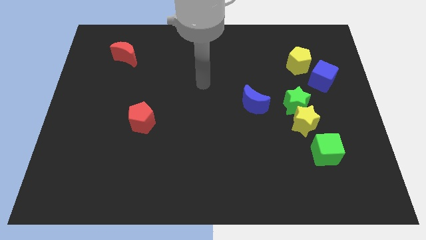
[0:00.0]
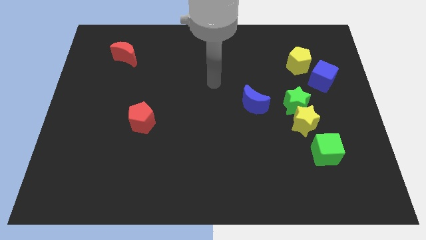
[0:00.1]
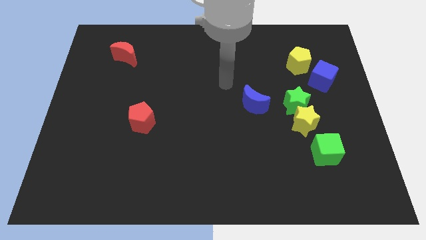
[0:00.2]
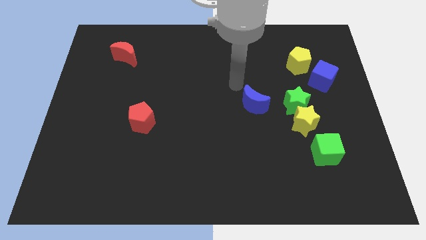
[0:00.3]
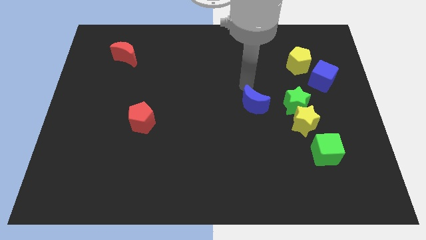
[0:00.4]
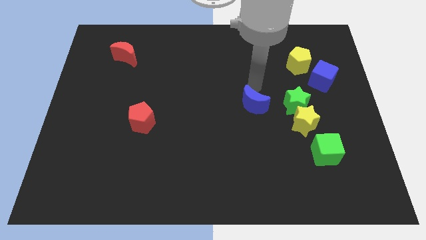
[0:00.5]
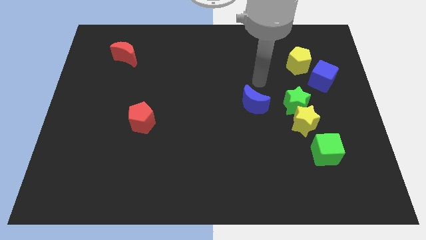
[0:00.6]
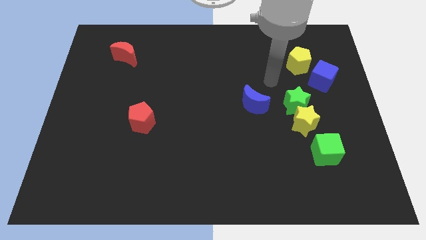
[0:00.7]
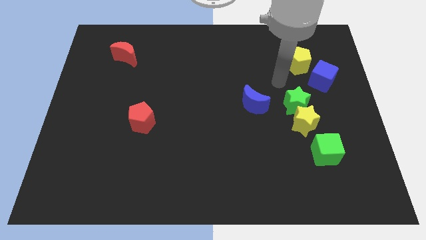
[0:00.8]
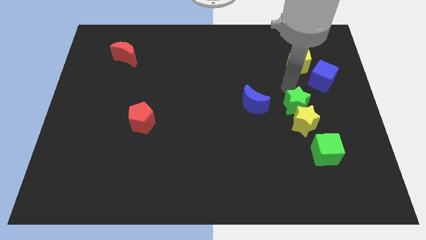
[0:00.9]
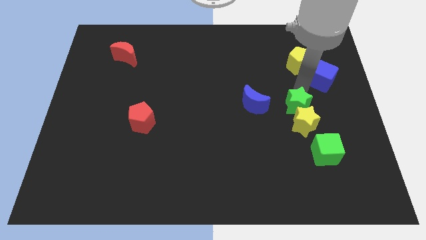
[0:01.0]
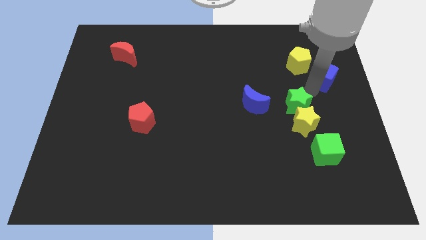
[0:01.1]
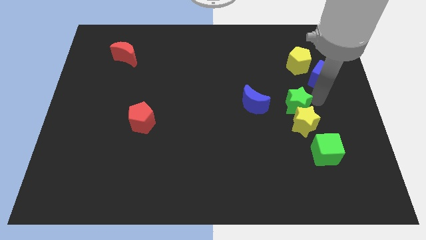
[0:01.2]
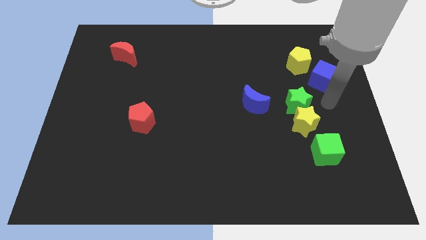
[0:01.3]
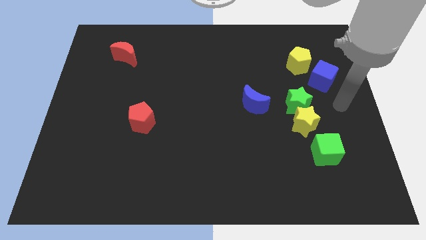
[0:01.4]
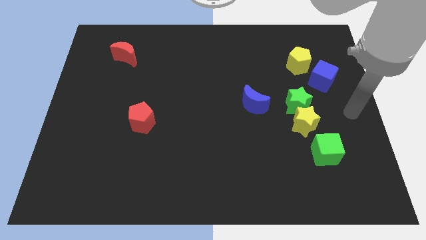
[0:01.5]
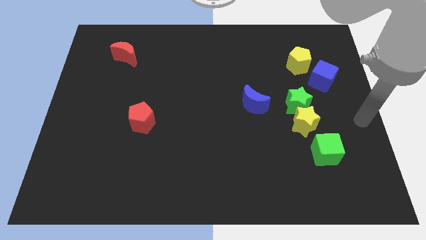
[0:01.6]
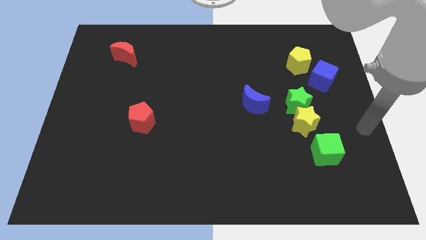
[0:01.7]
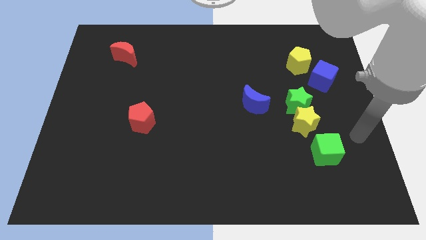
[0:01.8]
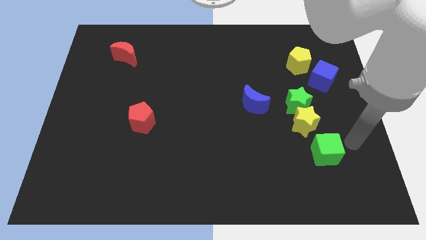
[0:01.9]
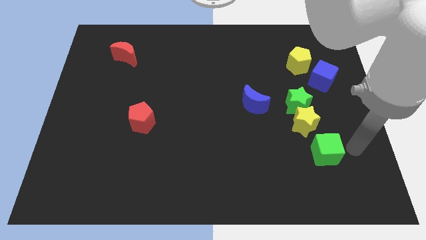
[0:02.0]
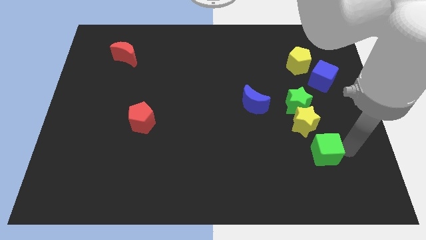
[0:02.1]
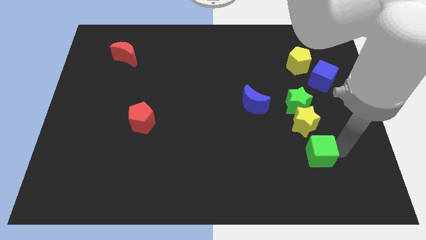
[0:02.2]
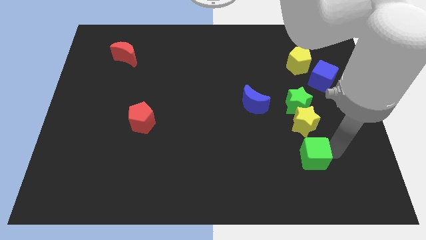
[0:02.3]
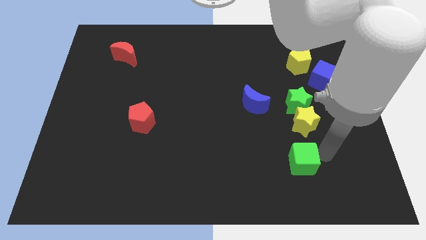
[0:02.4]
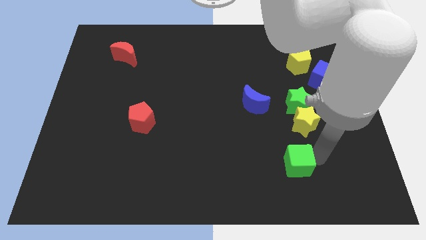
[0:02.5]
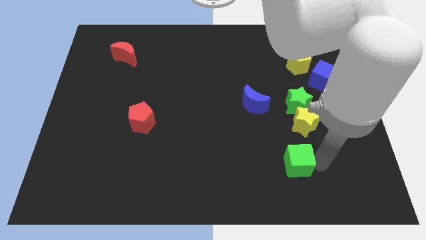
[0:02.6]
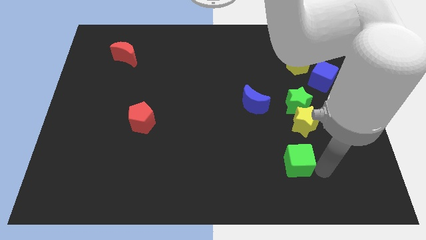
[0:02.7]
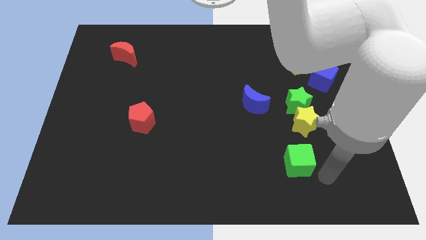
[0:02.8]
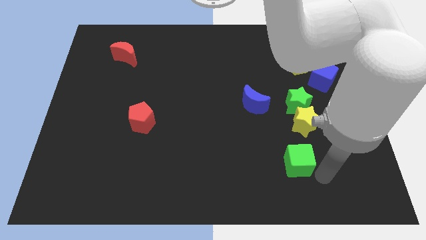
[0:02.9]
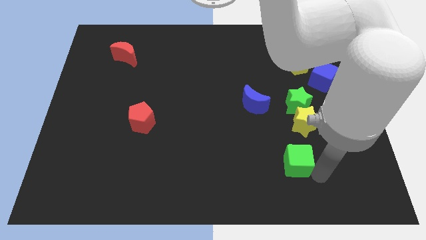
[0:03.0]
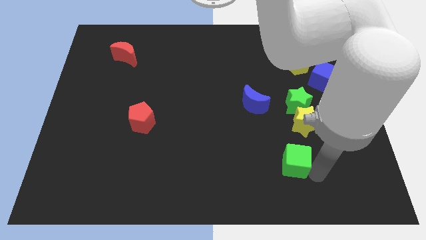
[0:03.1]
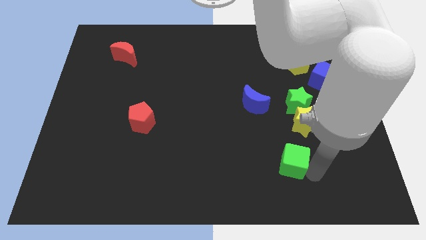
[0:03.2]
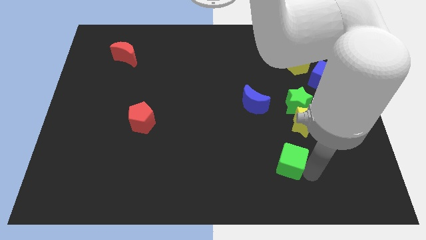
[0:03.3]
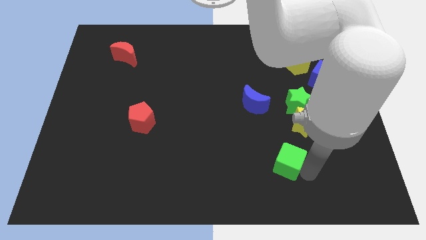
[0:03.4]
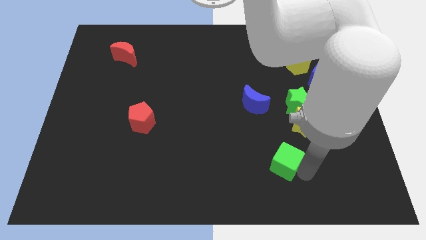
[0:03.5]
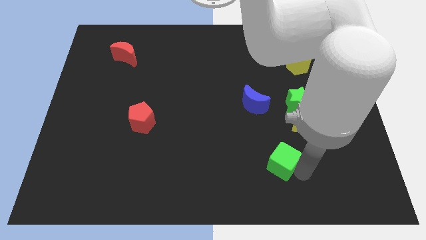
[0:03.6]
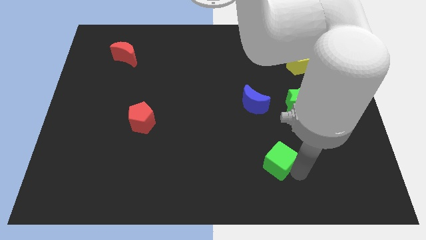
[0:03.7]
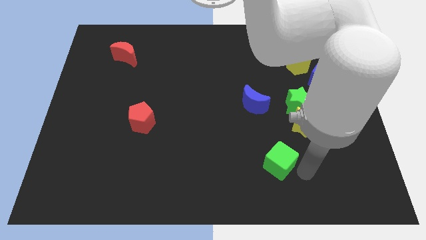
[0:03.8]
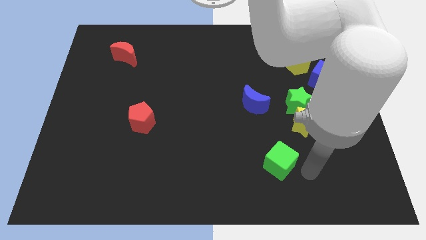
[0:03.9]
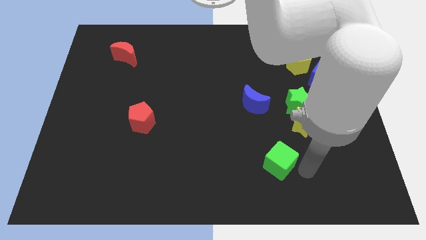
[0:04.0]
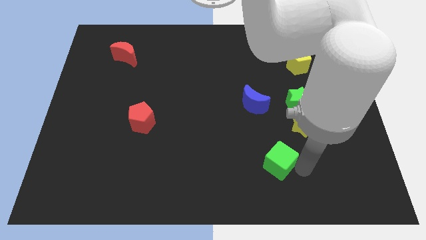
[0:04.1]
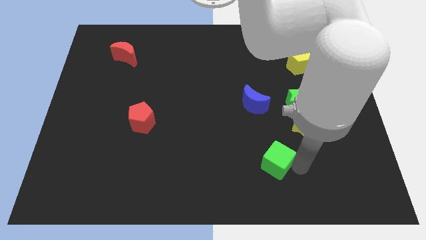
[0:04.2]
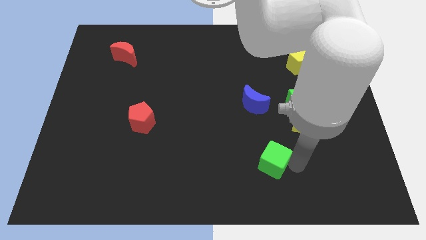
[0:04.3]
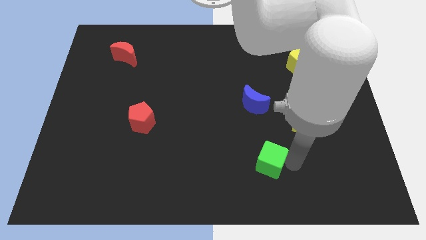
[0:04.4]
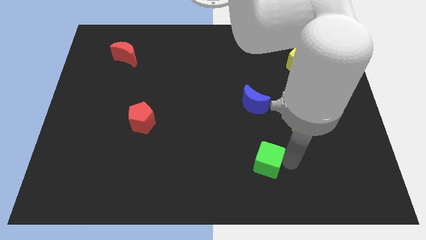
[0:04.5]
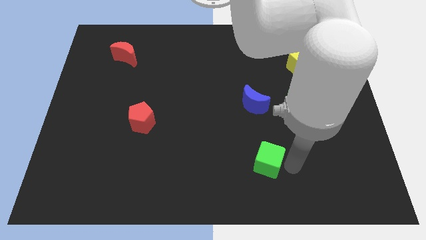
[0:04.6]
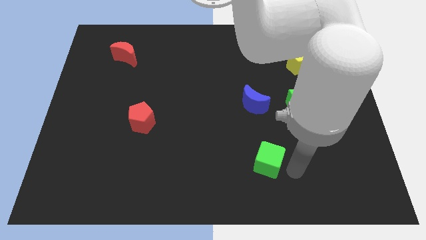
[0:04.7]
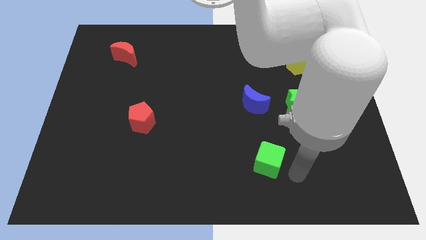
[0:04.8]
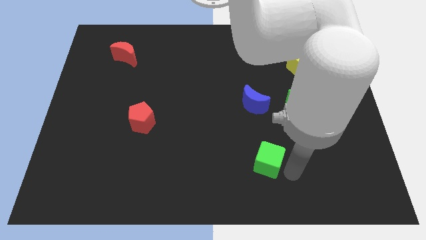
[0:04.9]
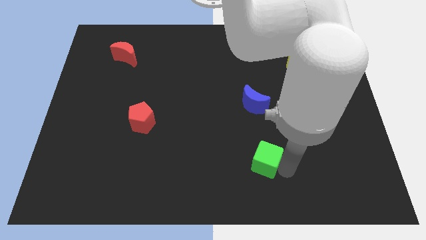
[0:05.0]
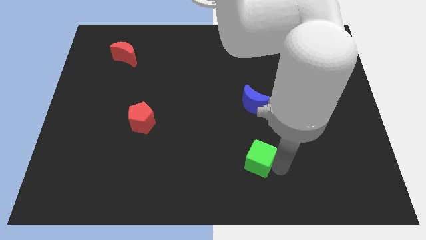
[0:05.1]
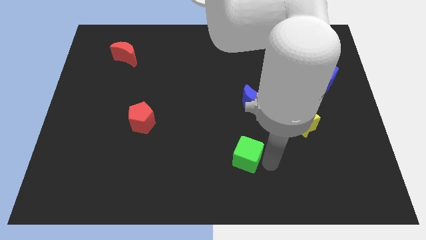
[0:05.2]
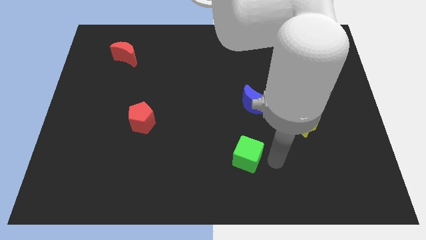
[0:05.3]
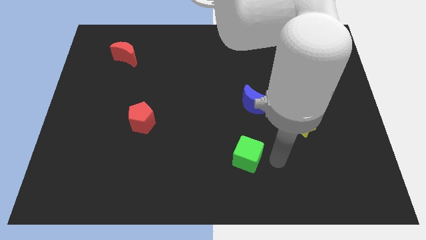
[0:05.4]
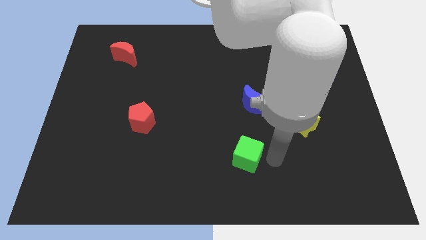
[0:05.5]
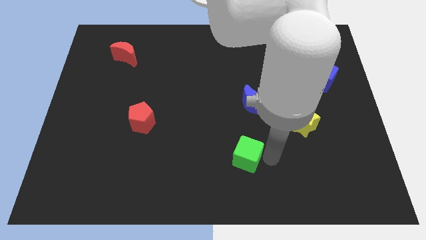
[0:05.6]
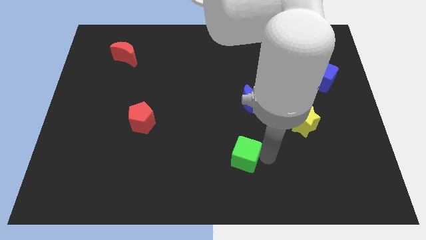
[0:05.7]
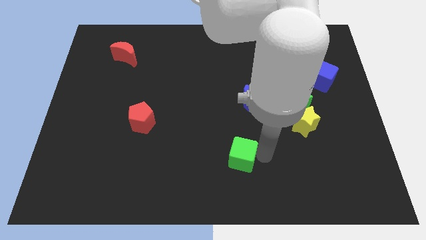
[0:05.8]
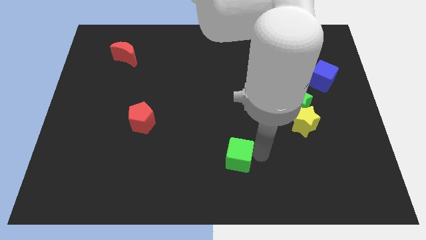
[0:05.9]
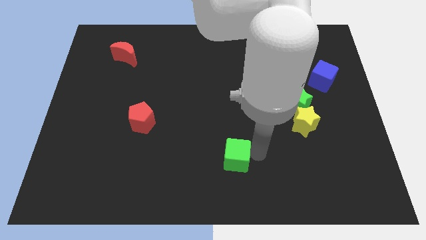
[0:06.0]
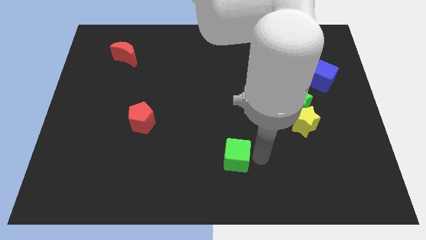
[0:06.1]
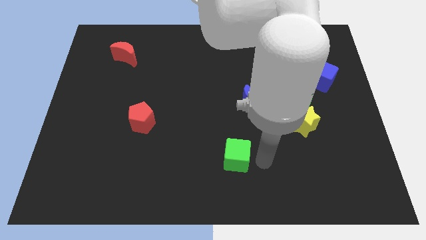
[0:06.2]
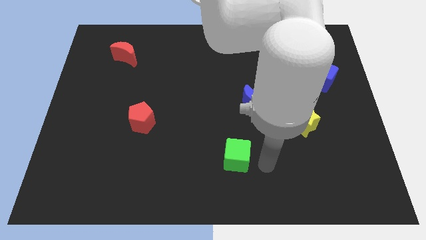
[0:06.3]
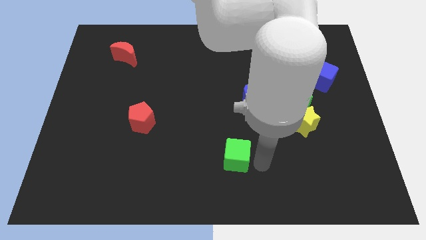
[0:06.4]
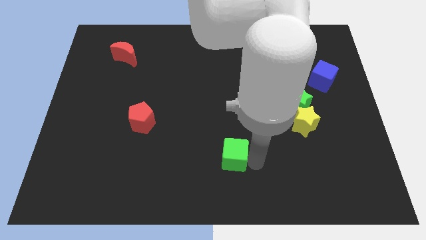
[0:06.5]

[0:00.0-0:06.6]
move the green cube left

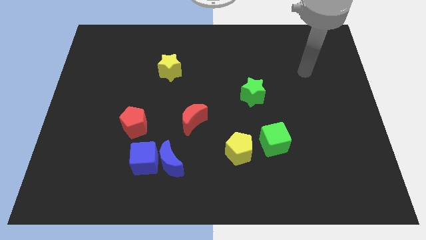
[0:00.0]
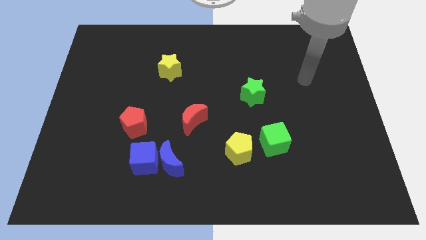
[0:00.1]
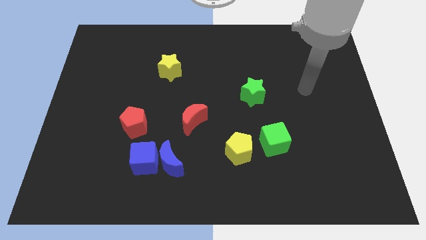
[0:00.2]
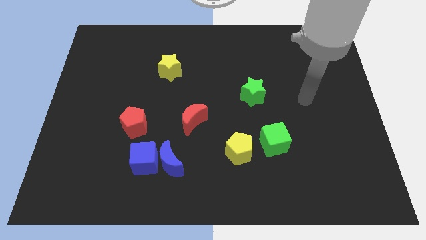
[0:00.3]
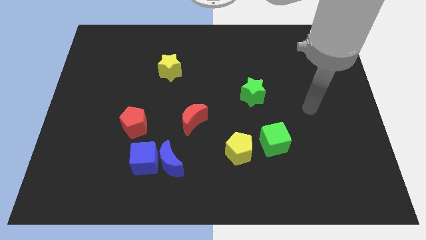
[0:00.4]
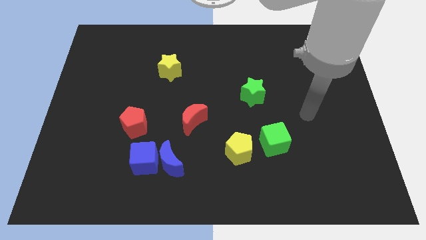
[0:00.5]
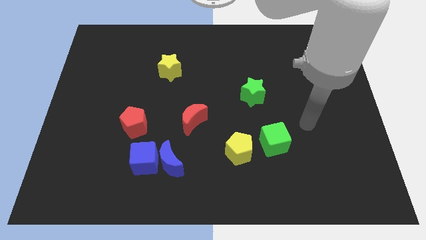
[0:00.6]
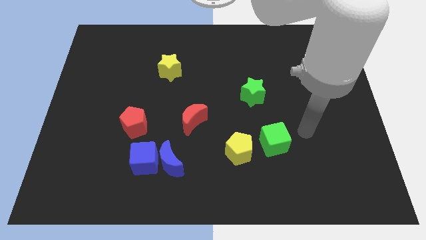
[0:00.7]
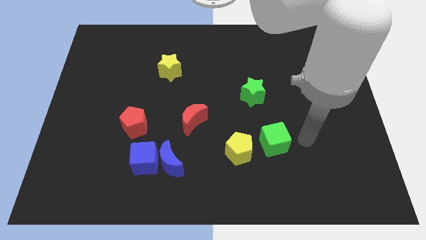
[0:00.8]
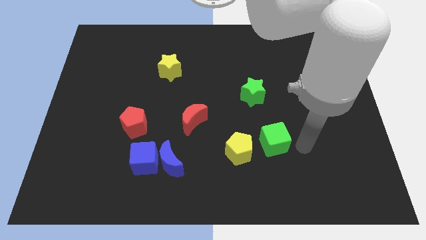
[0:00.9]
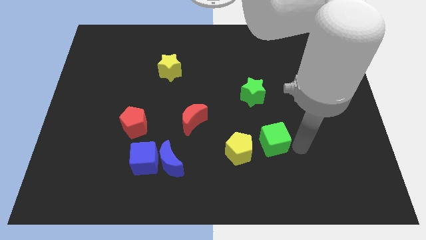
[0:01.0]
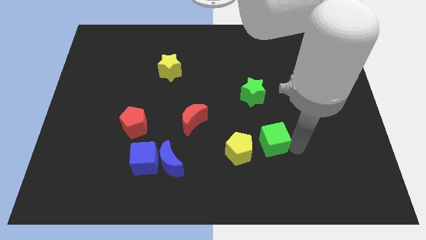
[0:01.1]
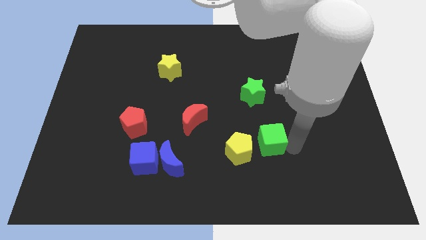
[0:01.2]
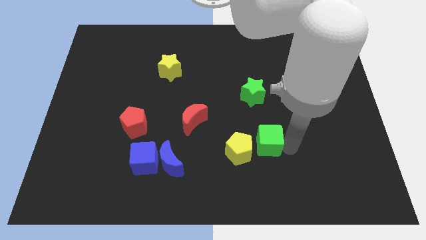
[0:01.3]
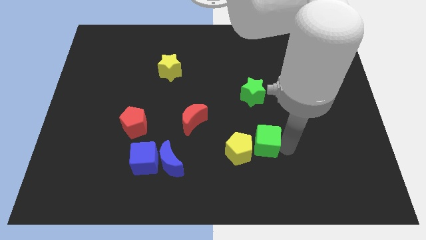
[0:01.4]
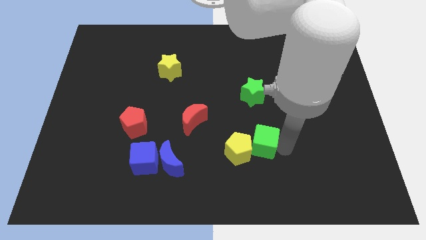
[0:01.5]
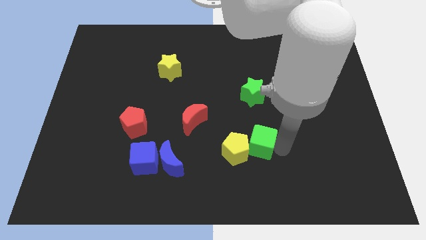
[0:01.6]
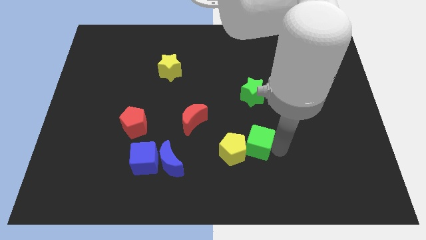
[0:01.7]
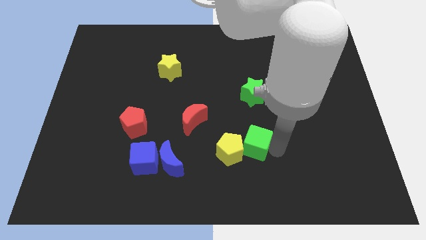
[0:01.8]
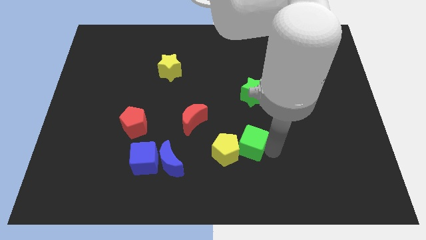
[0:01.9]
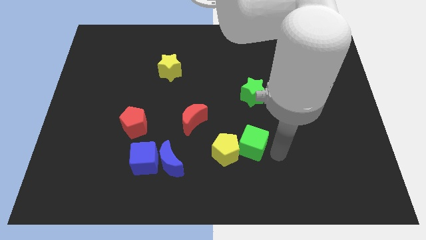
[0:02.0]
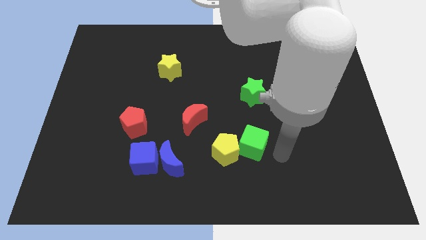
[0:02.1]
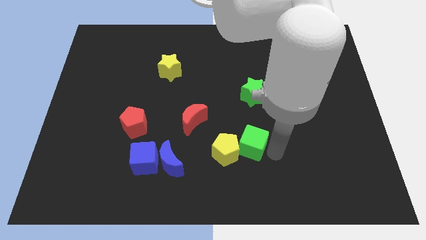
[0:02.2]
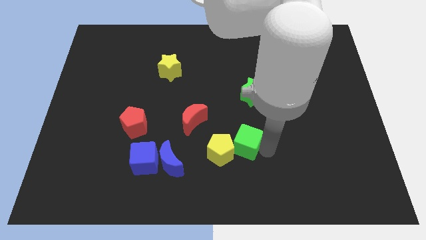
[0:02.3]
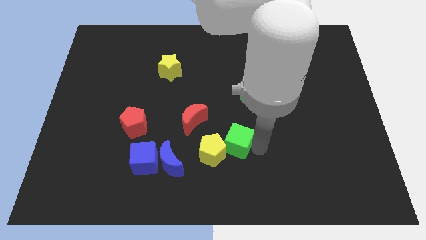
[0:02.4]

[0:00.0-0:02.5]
slightly slide the green cube to the left
